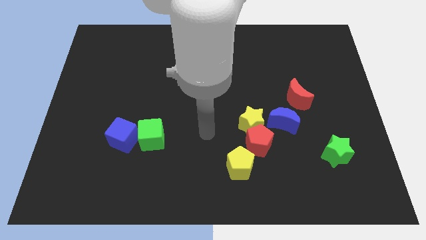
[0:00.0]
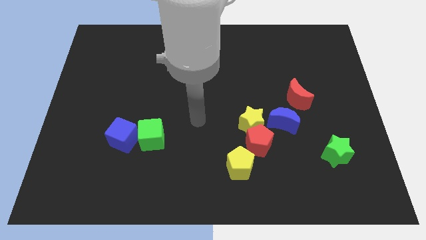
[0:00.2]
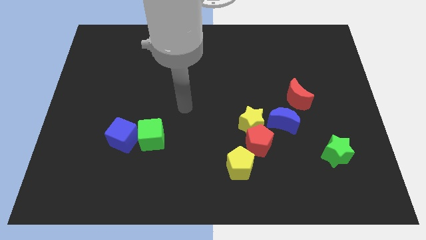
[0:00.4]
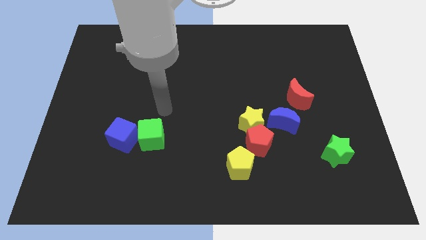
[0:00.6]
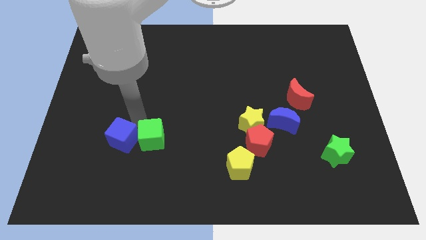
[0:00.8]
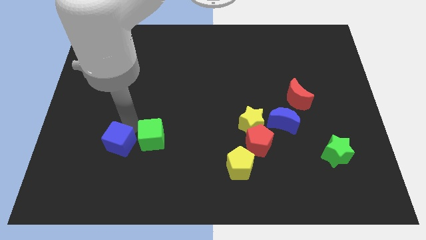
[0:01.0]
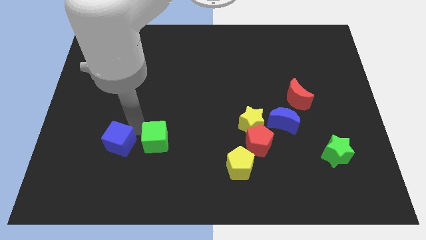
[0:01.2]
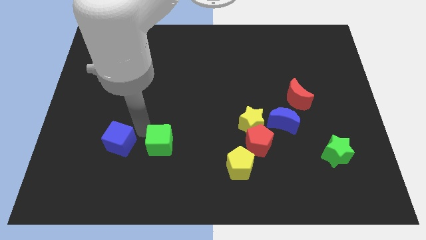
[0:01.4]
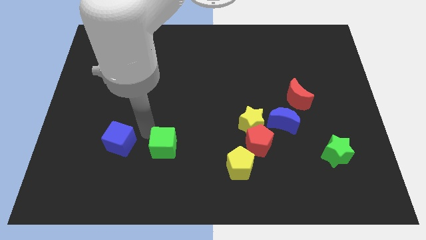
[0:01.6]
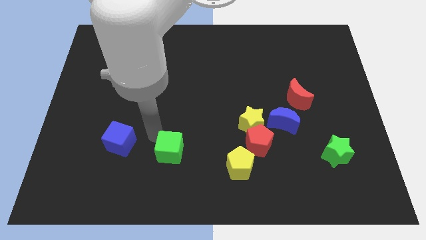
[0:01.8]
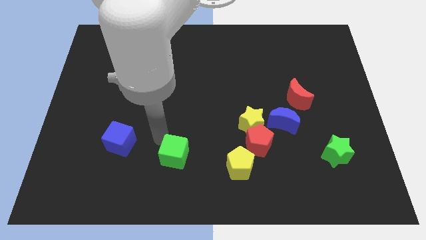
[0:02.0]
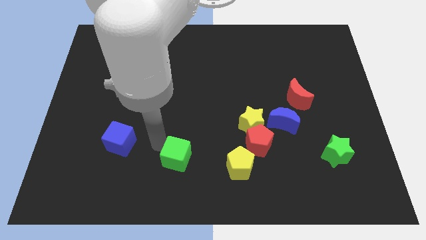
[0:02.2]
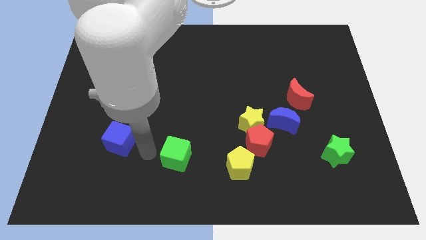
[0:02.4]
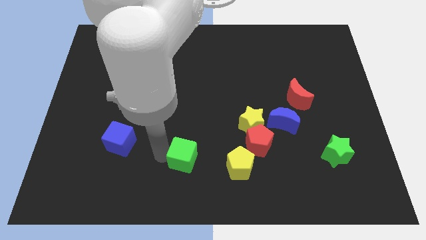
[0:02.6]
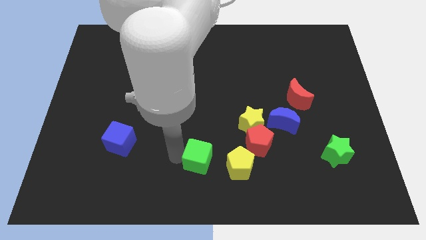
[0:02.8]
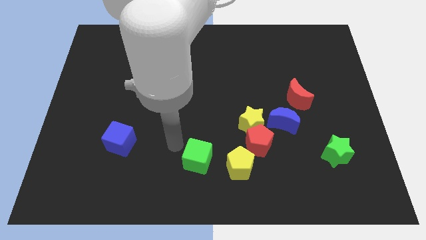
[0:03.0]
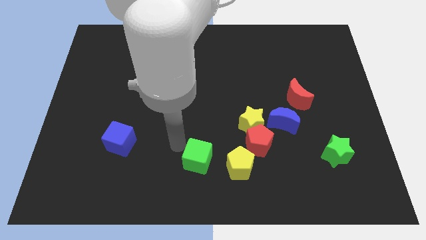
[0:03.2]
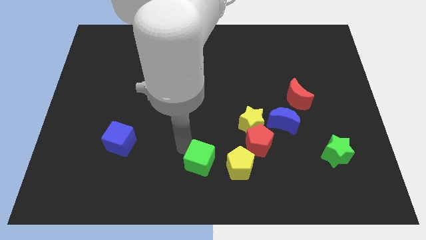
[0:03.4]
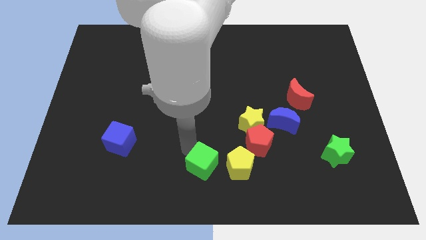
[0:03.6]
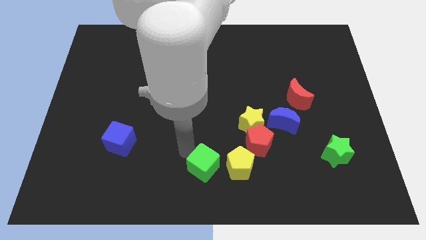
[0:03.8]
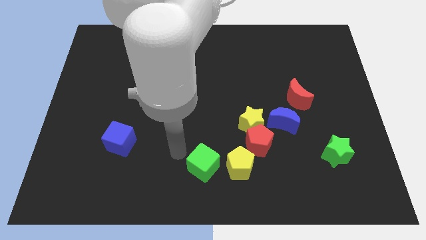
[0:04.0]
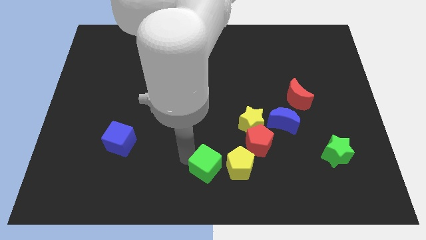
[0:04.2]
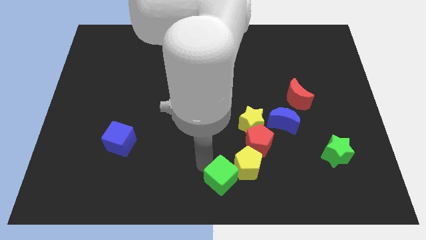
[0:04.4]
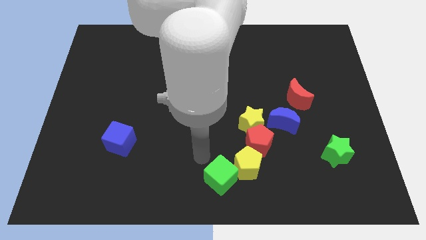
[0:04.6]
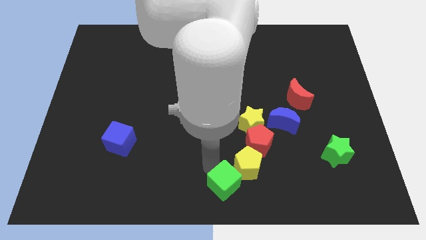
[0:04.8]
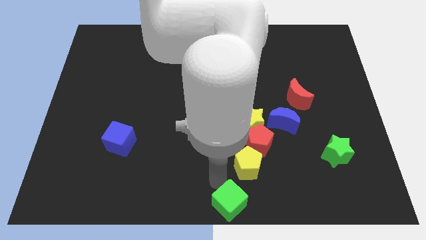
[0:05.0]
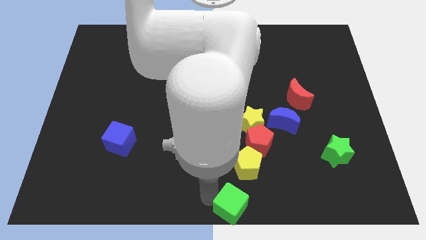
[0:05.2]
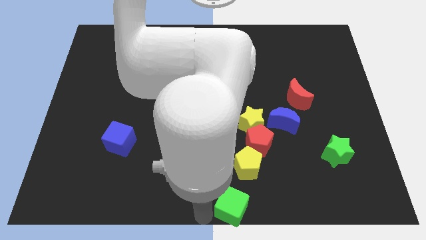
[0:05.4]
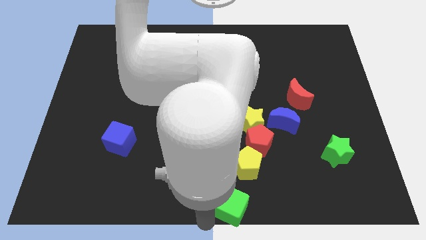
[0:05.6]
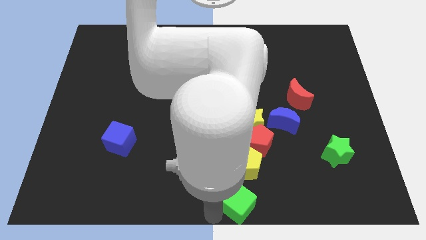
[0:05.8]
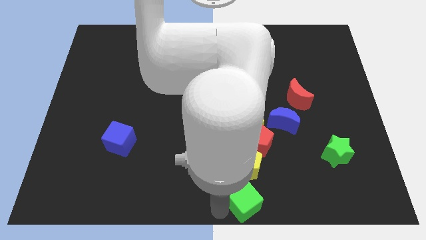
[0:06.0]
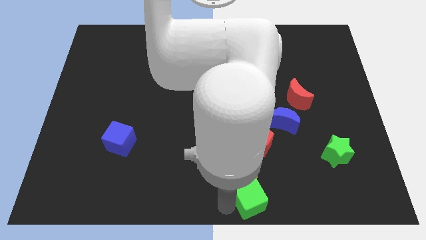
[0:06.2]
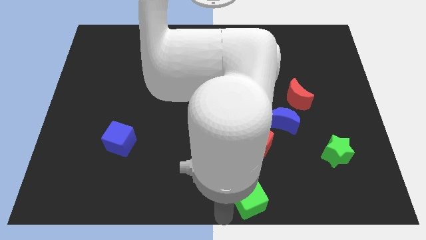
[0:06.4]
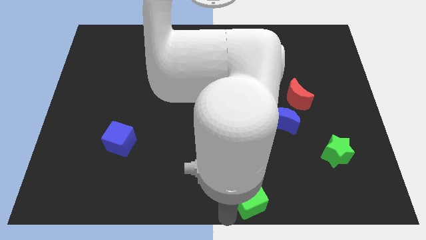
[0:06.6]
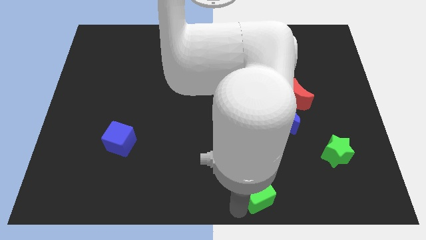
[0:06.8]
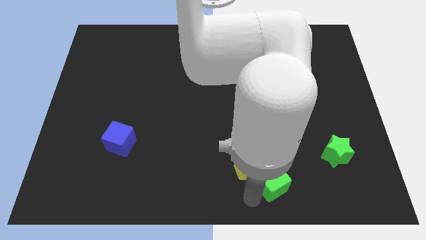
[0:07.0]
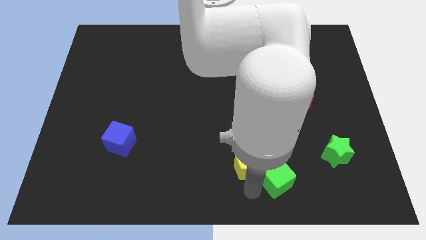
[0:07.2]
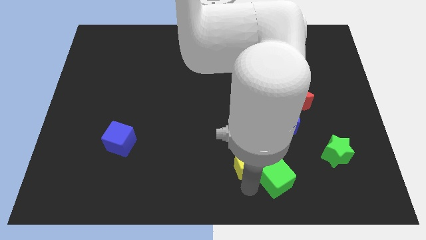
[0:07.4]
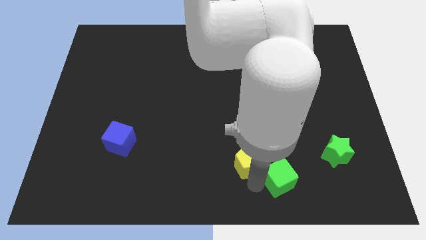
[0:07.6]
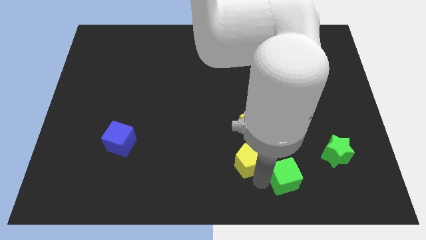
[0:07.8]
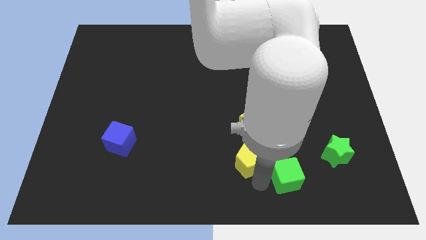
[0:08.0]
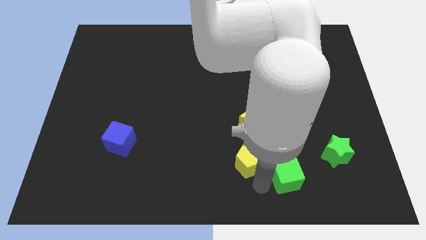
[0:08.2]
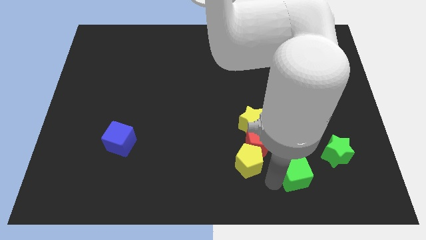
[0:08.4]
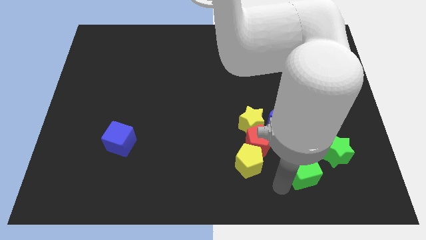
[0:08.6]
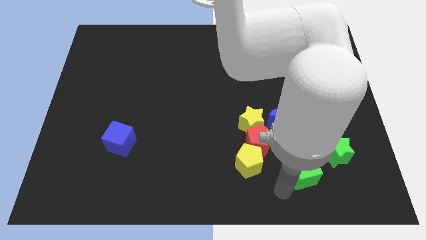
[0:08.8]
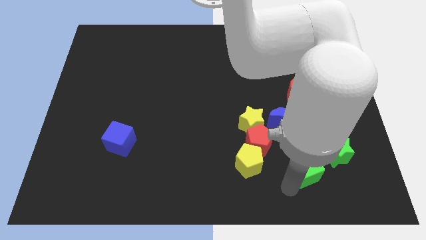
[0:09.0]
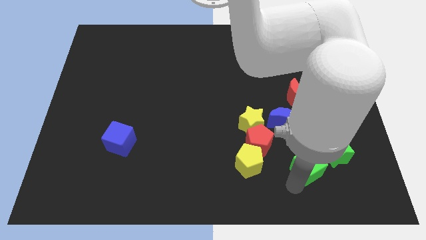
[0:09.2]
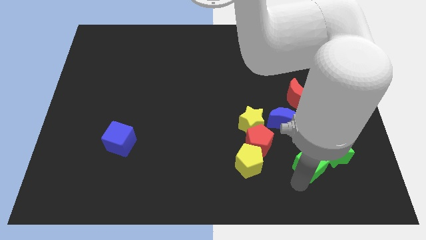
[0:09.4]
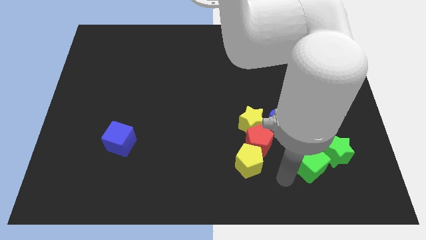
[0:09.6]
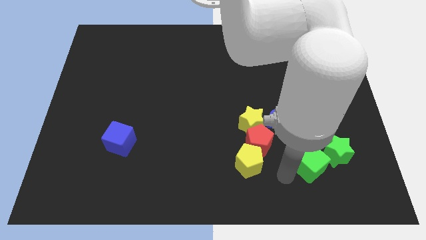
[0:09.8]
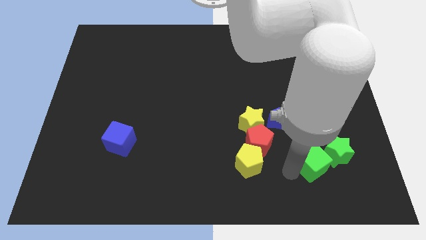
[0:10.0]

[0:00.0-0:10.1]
slide the green cube next to the green star

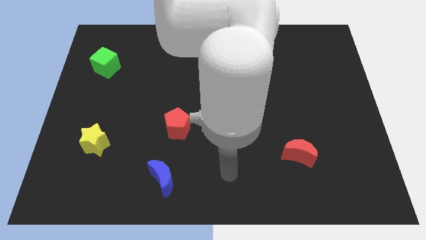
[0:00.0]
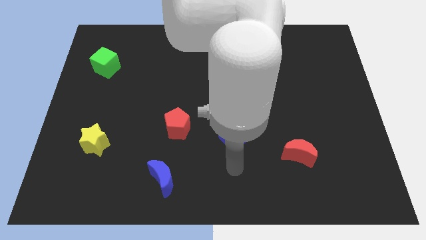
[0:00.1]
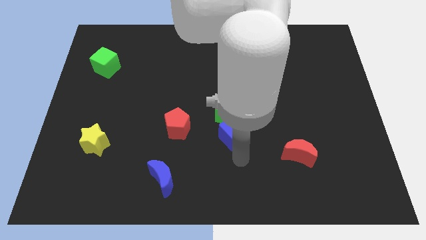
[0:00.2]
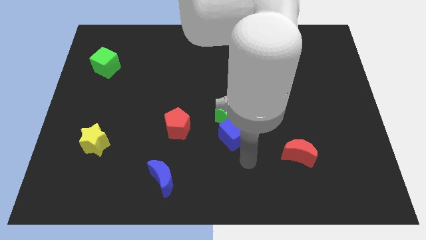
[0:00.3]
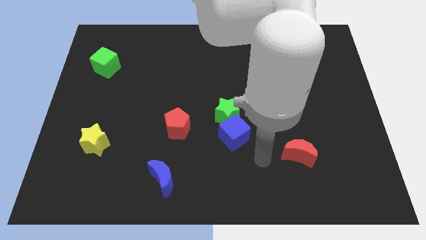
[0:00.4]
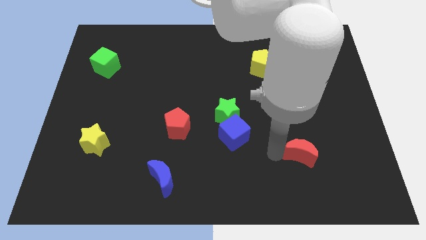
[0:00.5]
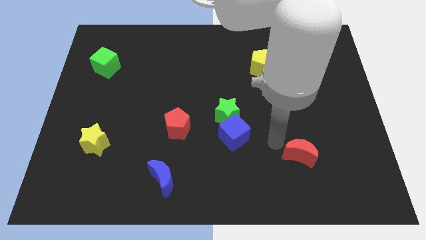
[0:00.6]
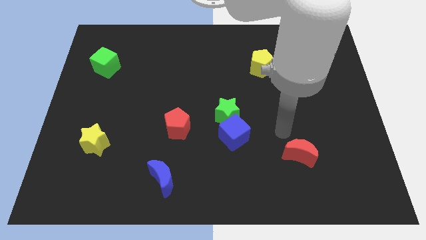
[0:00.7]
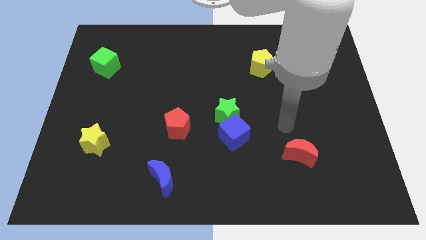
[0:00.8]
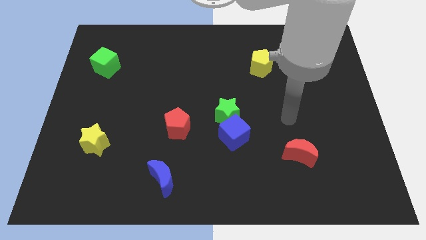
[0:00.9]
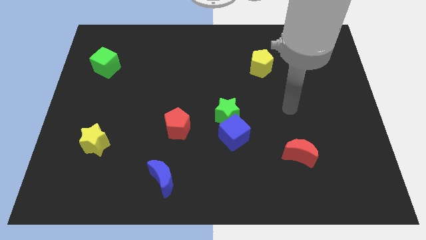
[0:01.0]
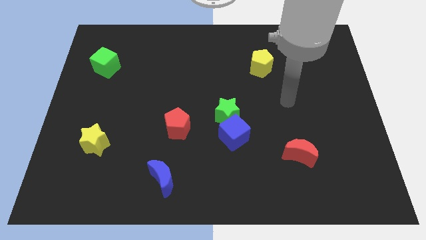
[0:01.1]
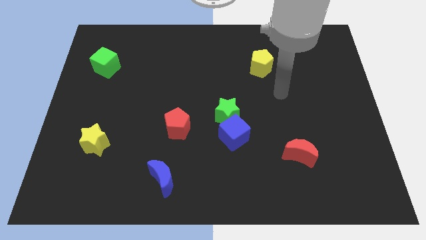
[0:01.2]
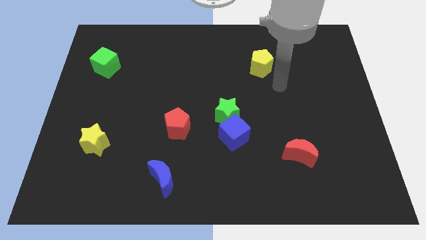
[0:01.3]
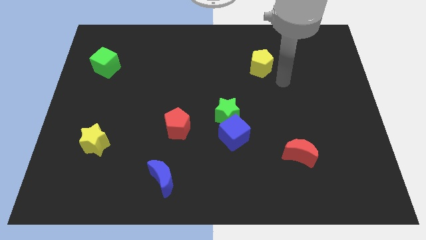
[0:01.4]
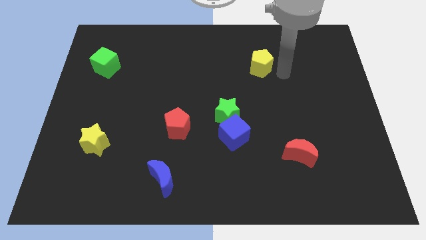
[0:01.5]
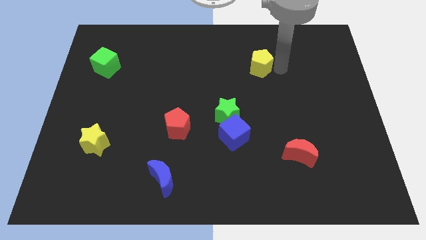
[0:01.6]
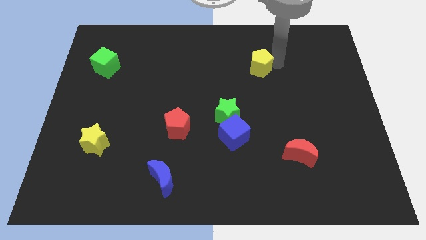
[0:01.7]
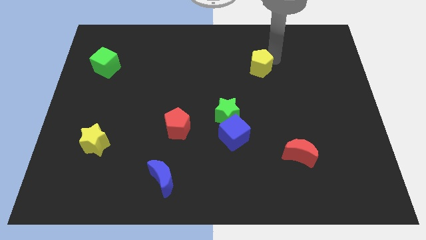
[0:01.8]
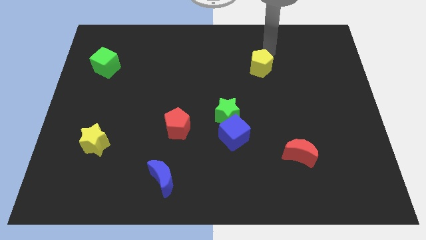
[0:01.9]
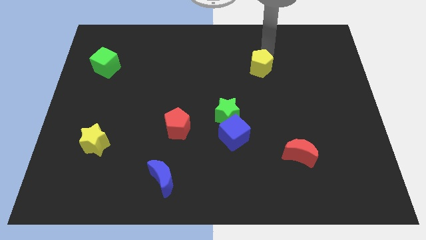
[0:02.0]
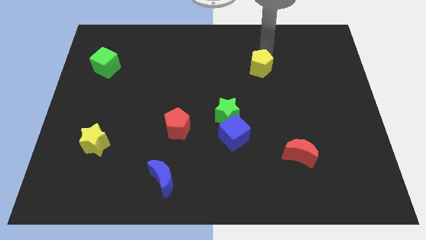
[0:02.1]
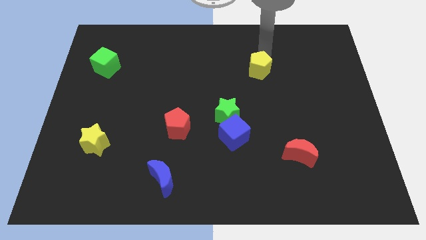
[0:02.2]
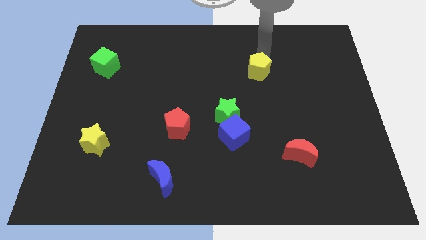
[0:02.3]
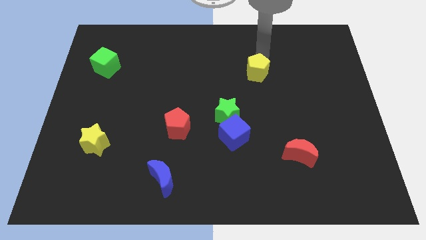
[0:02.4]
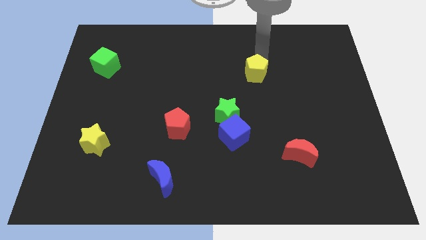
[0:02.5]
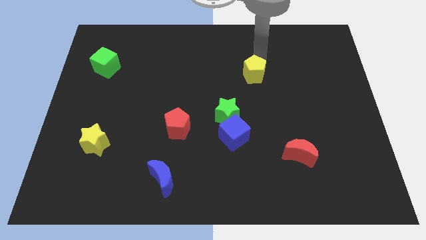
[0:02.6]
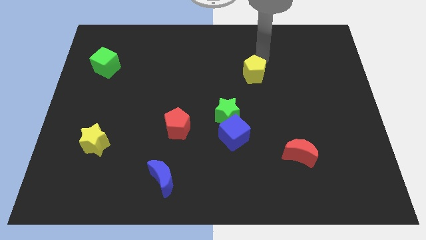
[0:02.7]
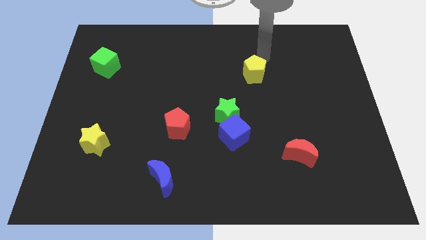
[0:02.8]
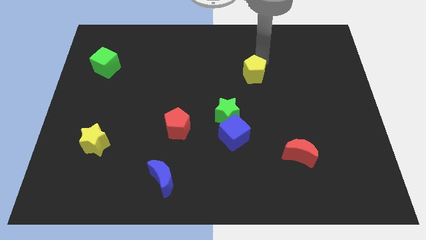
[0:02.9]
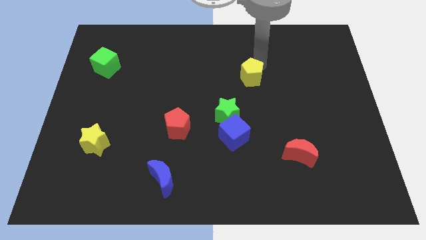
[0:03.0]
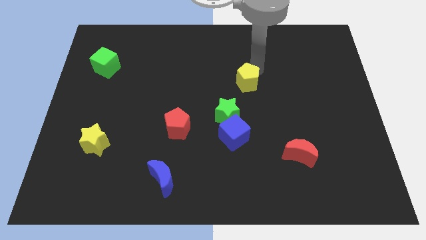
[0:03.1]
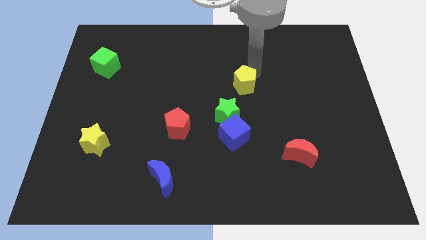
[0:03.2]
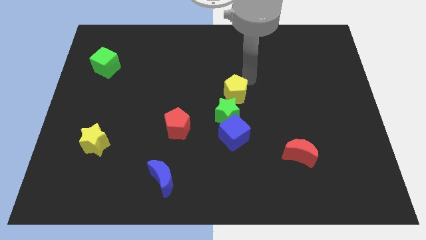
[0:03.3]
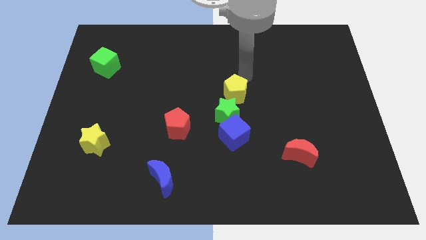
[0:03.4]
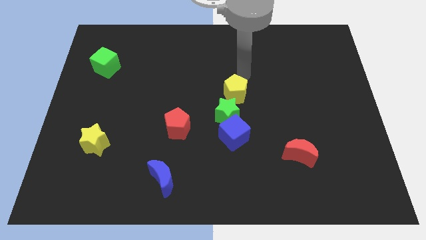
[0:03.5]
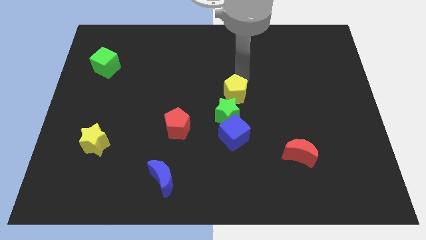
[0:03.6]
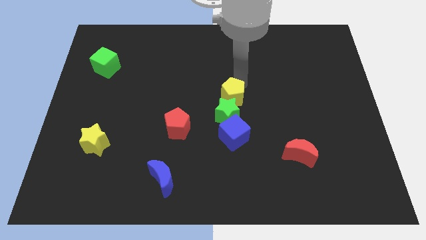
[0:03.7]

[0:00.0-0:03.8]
slide the yellow pentagon next to the green star
